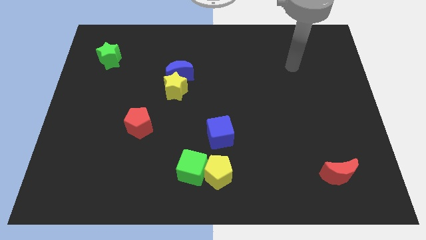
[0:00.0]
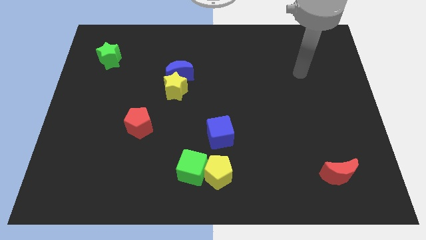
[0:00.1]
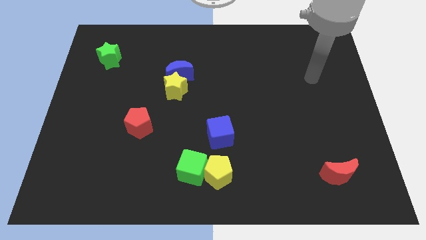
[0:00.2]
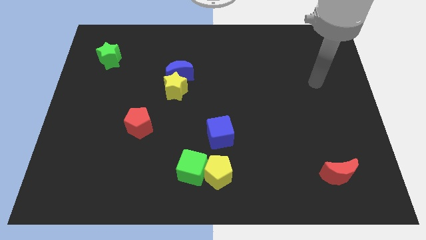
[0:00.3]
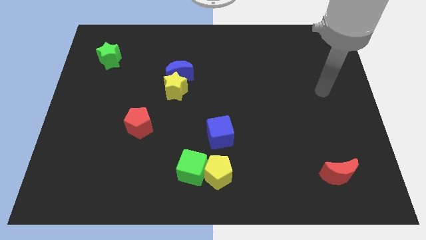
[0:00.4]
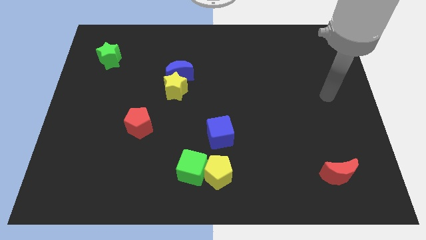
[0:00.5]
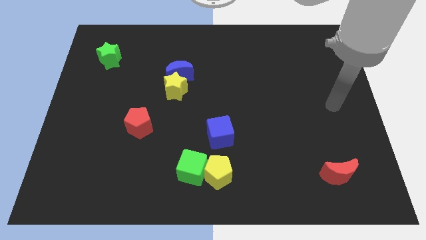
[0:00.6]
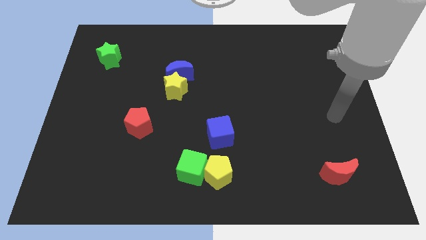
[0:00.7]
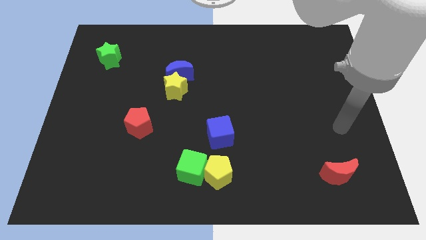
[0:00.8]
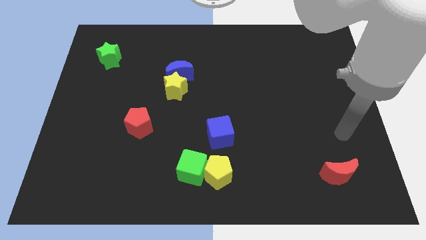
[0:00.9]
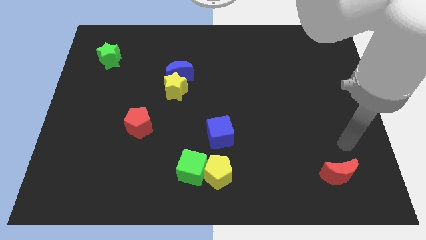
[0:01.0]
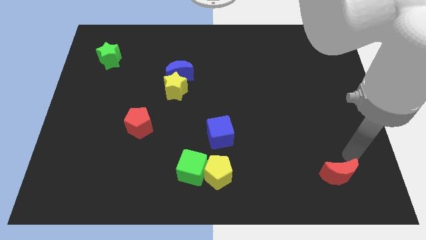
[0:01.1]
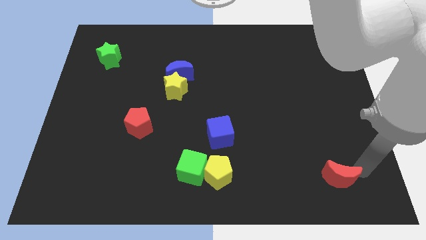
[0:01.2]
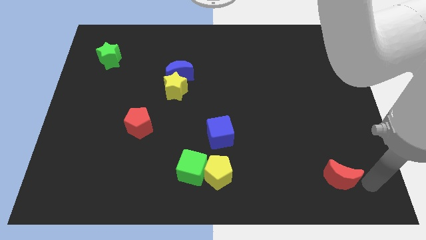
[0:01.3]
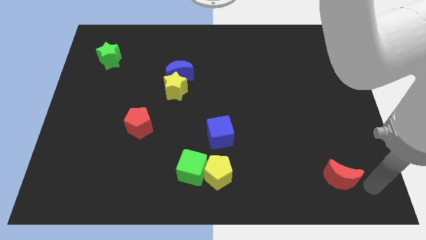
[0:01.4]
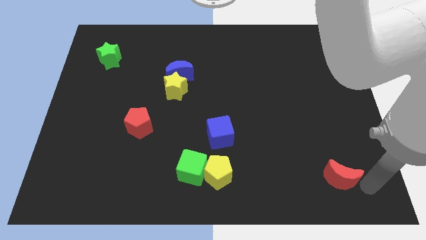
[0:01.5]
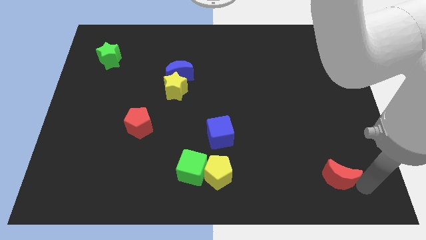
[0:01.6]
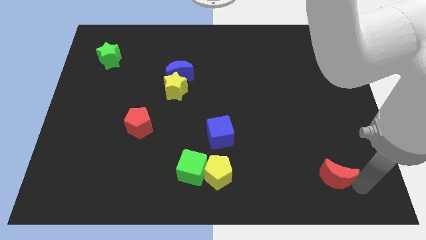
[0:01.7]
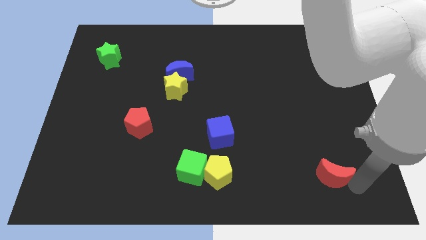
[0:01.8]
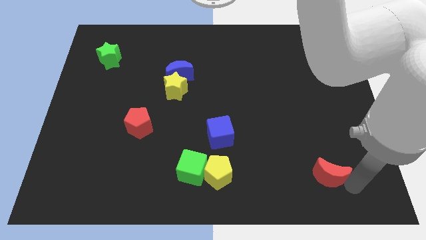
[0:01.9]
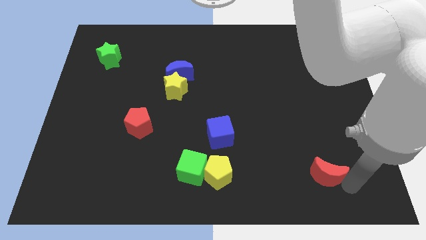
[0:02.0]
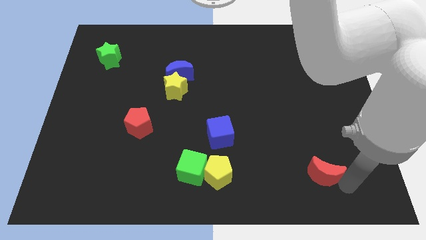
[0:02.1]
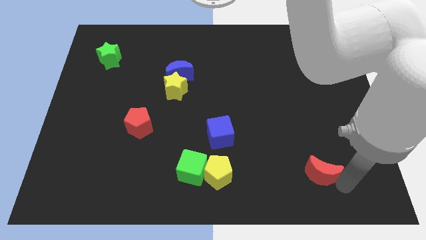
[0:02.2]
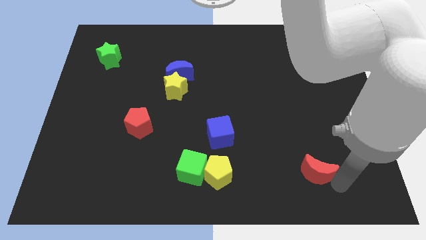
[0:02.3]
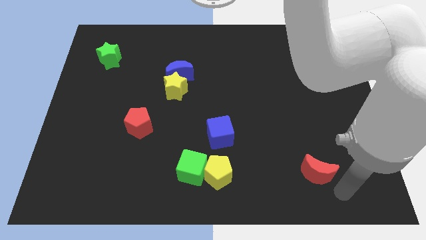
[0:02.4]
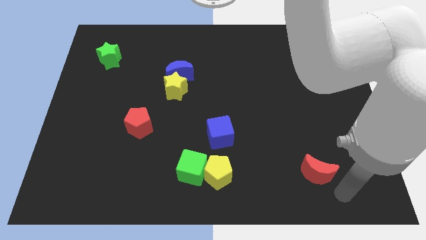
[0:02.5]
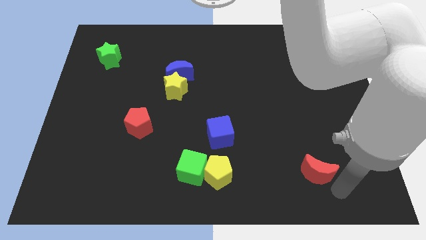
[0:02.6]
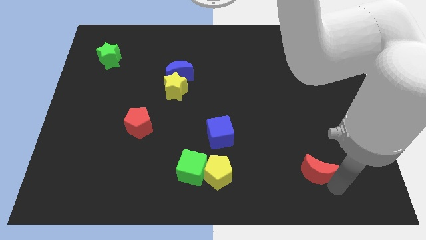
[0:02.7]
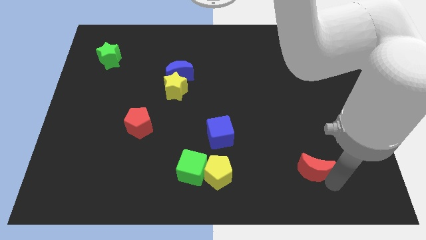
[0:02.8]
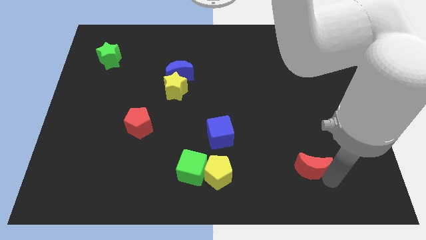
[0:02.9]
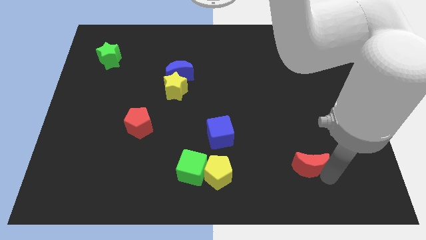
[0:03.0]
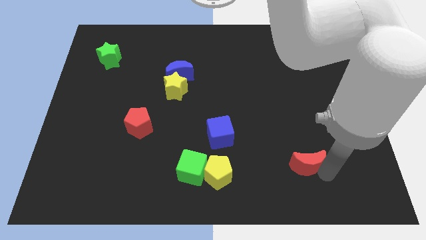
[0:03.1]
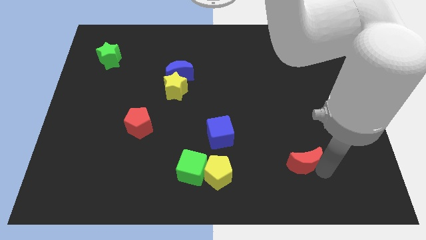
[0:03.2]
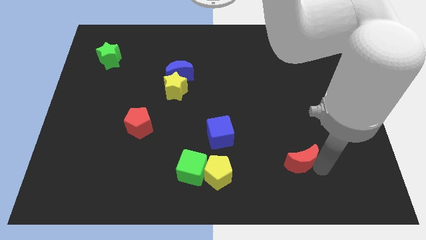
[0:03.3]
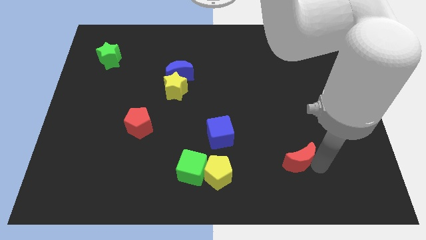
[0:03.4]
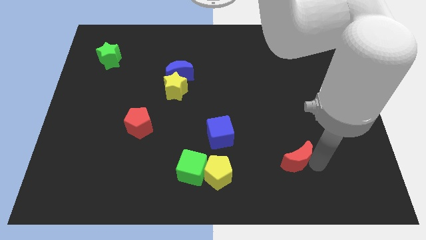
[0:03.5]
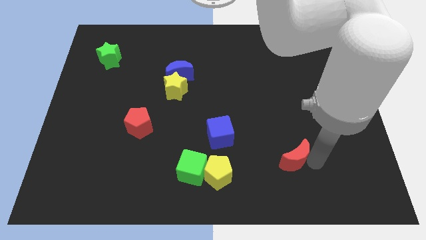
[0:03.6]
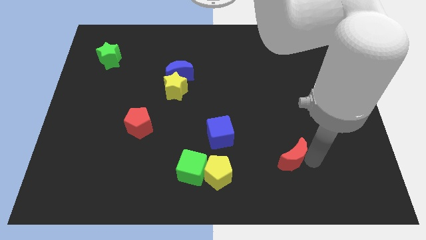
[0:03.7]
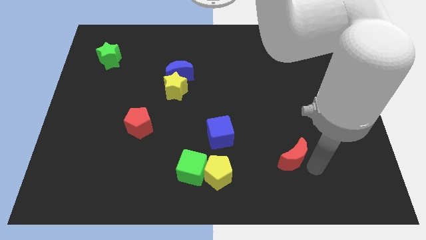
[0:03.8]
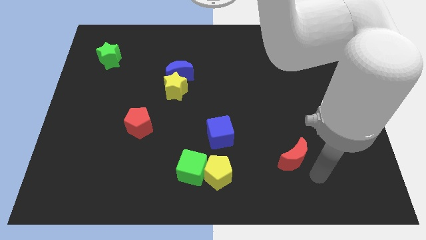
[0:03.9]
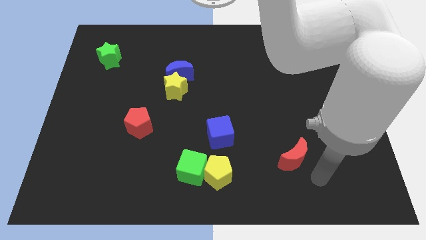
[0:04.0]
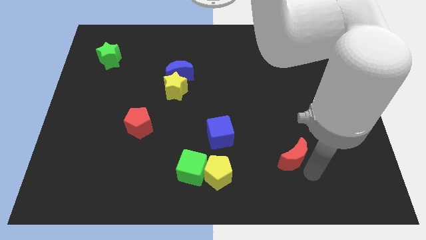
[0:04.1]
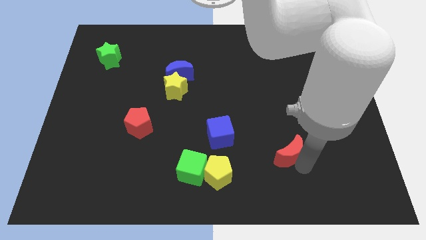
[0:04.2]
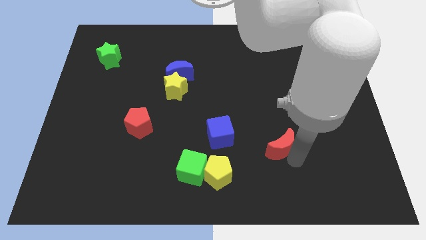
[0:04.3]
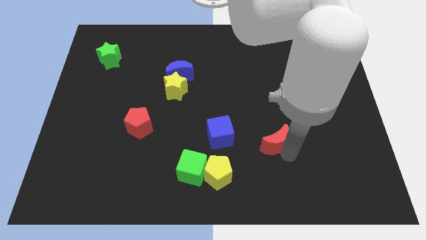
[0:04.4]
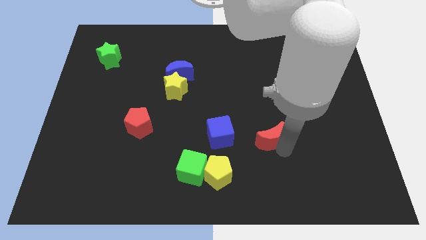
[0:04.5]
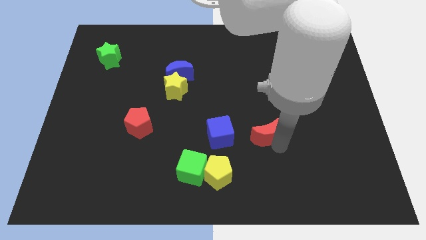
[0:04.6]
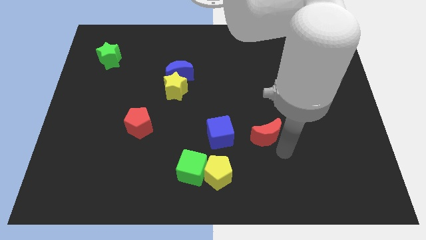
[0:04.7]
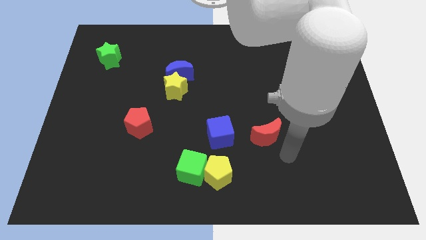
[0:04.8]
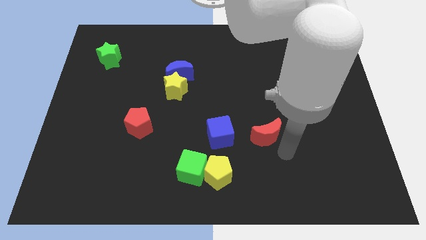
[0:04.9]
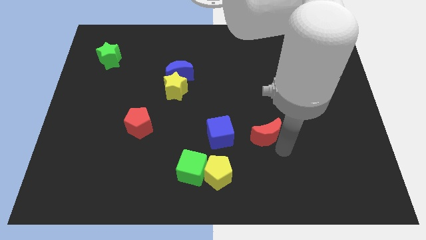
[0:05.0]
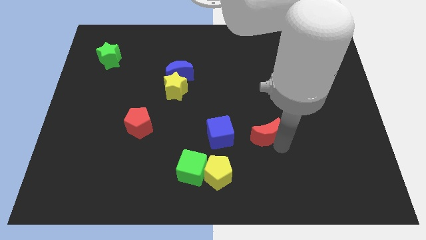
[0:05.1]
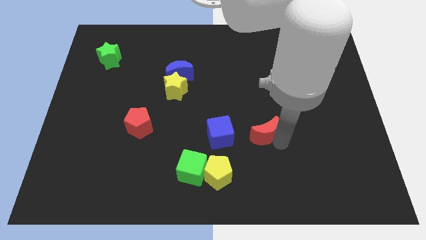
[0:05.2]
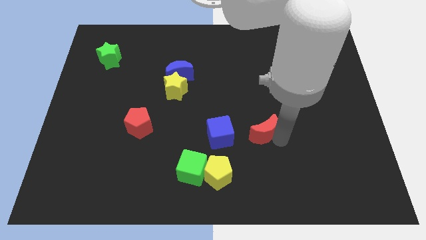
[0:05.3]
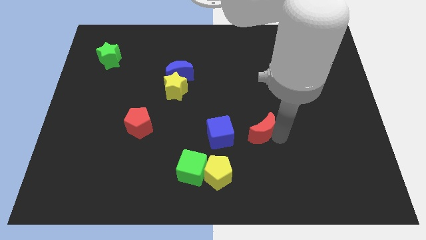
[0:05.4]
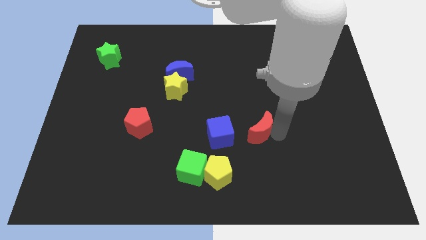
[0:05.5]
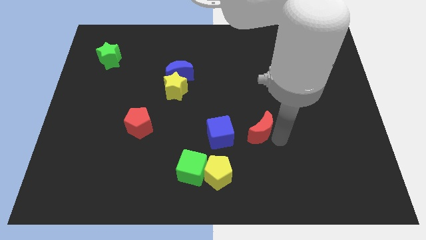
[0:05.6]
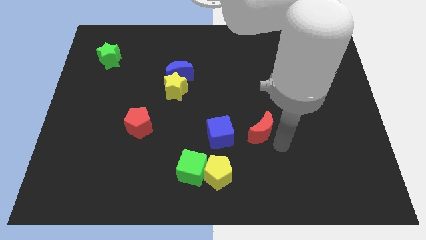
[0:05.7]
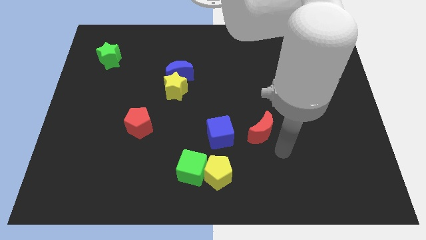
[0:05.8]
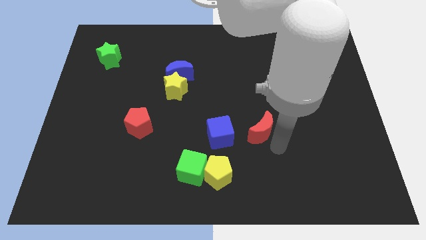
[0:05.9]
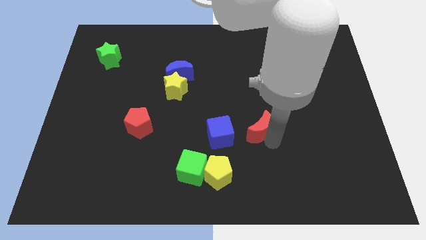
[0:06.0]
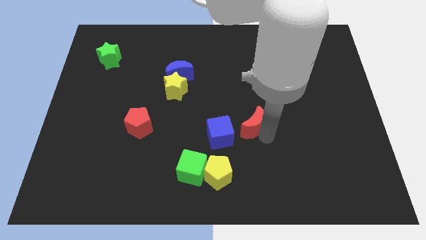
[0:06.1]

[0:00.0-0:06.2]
slide the red moon upwards and then left

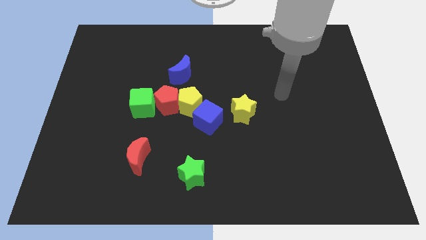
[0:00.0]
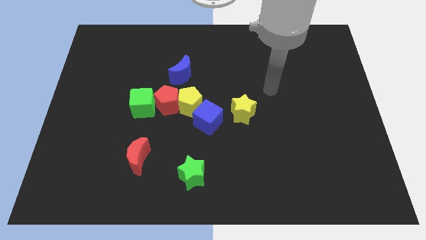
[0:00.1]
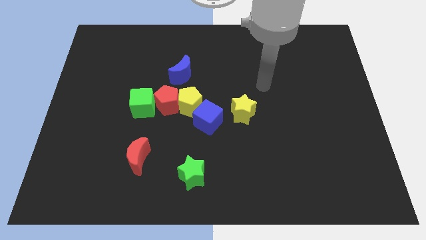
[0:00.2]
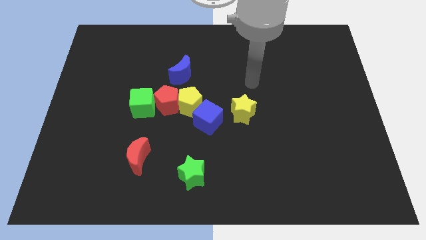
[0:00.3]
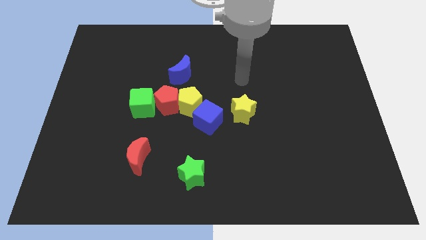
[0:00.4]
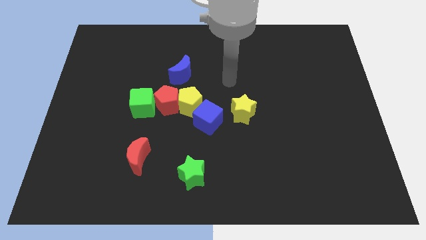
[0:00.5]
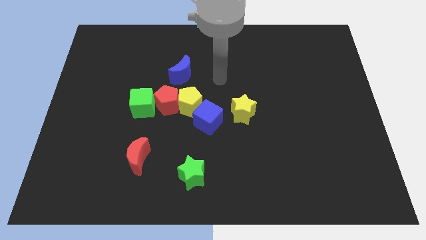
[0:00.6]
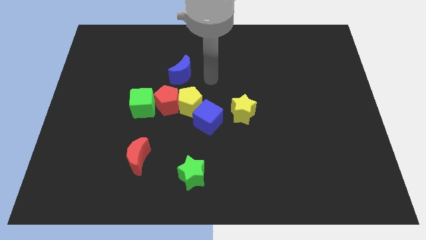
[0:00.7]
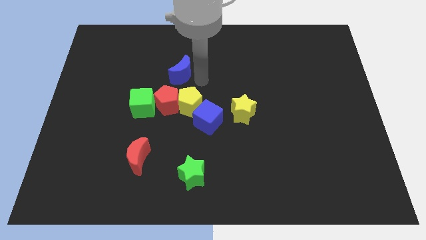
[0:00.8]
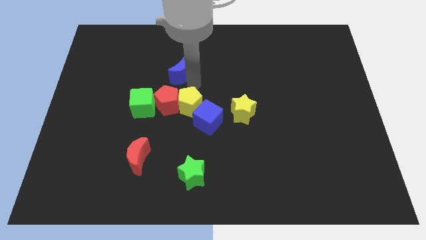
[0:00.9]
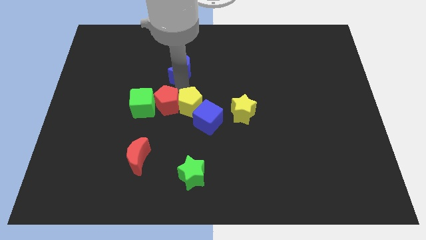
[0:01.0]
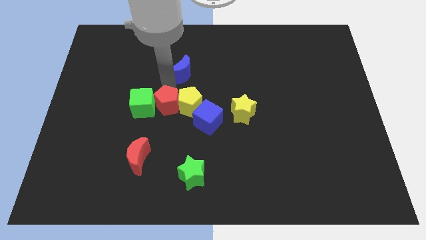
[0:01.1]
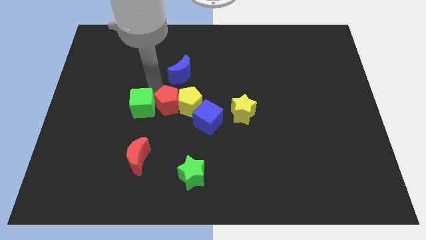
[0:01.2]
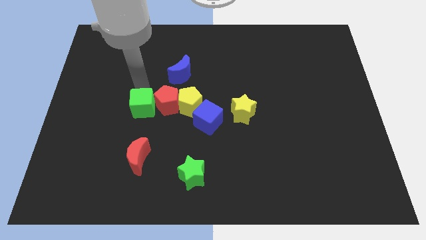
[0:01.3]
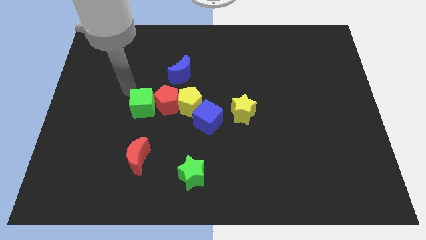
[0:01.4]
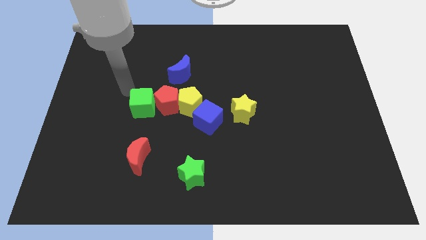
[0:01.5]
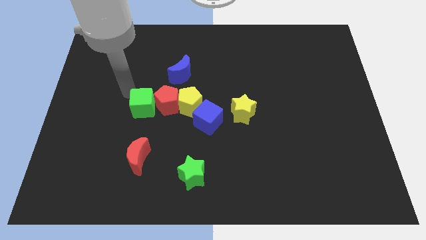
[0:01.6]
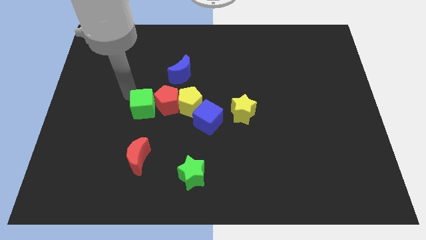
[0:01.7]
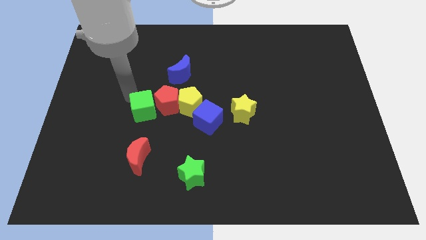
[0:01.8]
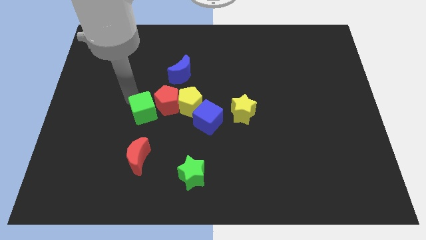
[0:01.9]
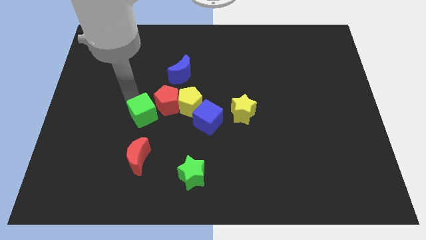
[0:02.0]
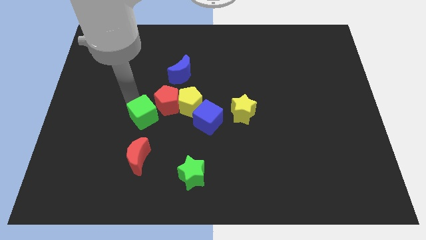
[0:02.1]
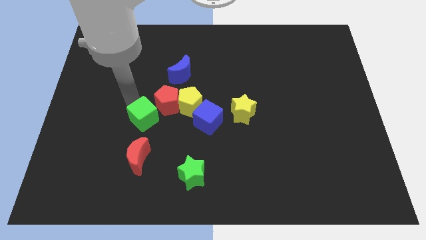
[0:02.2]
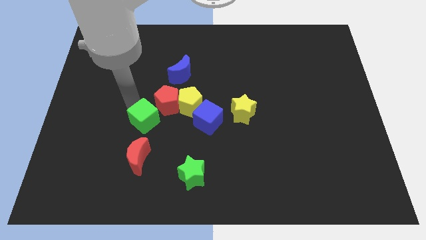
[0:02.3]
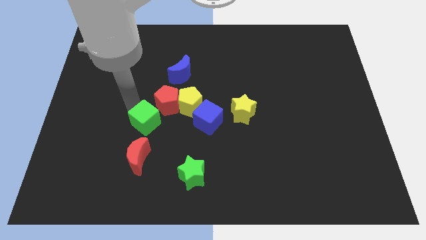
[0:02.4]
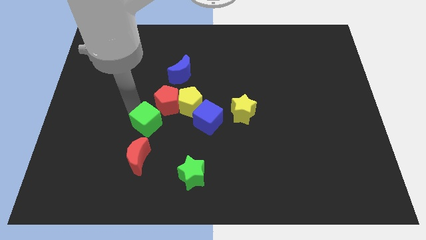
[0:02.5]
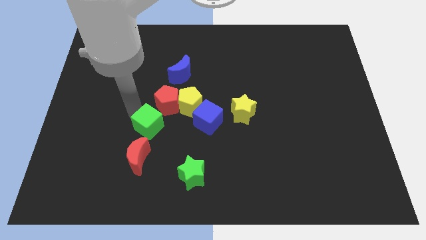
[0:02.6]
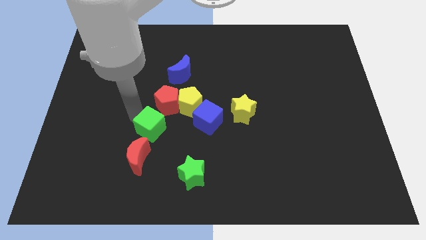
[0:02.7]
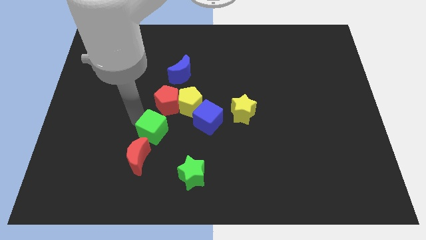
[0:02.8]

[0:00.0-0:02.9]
slightly slide the green cube downwards and right
